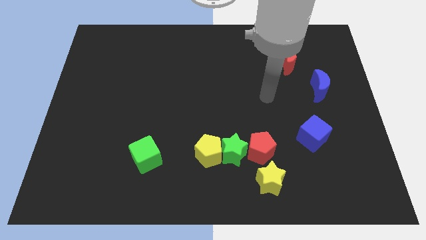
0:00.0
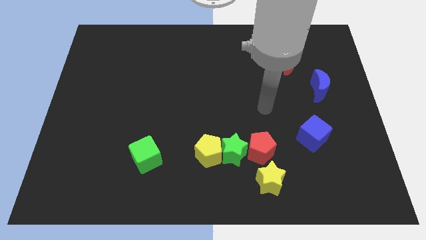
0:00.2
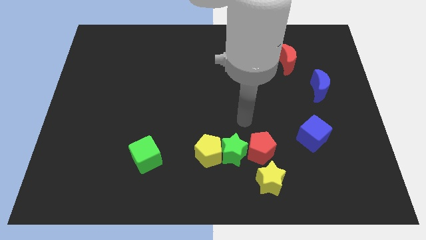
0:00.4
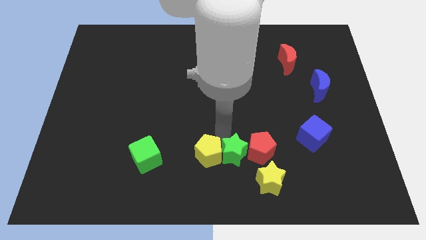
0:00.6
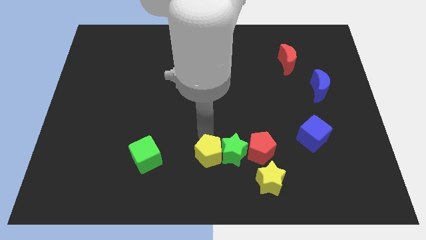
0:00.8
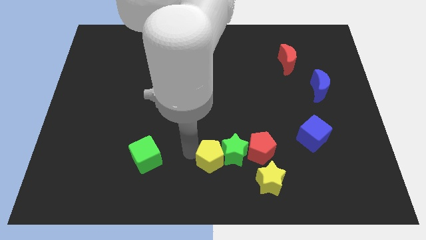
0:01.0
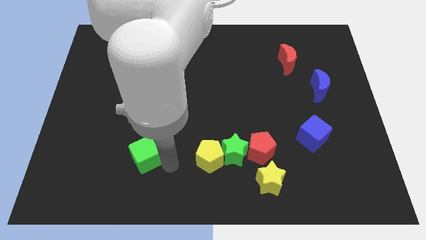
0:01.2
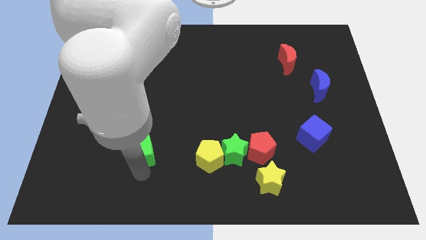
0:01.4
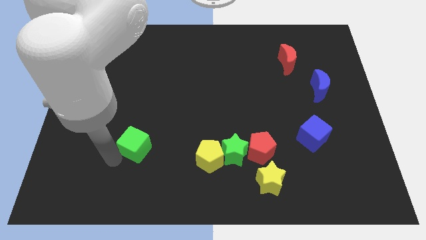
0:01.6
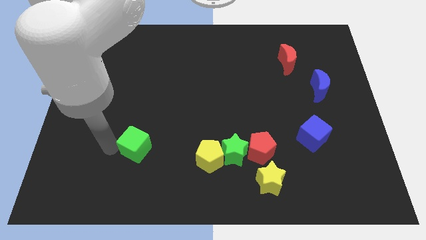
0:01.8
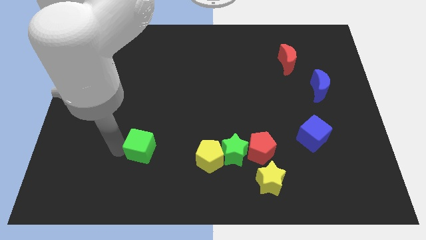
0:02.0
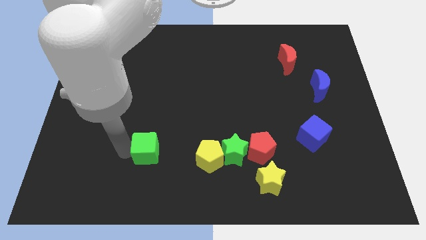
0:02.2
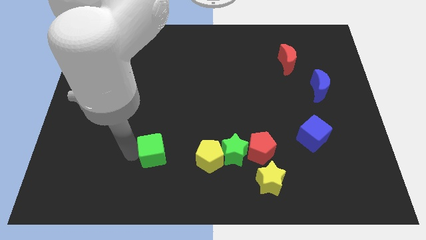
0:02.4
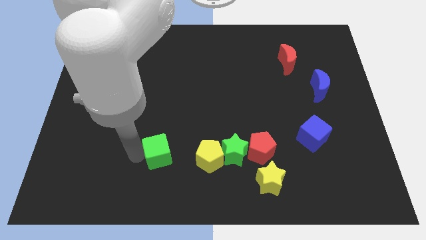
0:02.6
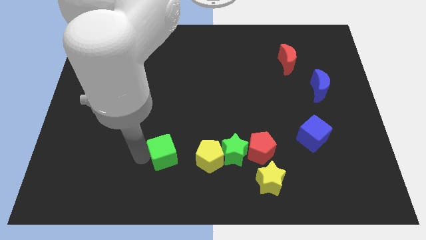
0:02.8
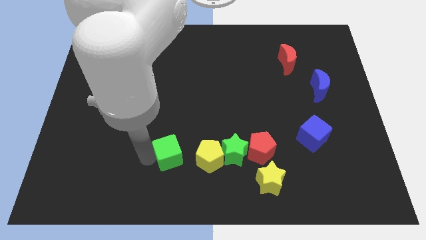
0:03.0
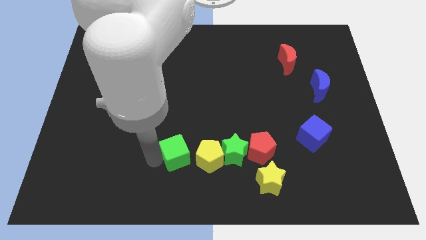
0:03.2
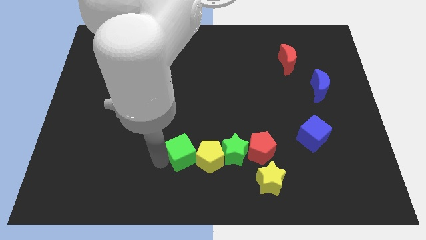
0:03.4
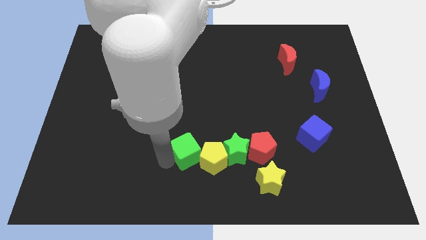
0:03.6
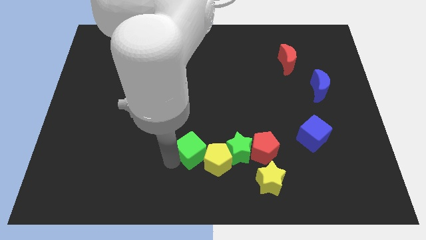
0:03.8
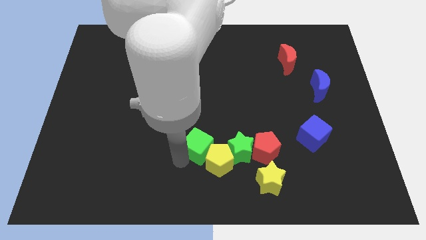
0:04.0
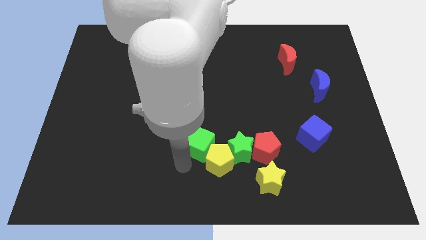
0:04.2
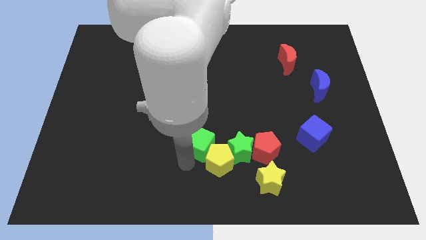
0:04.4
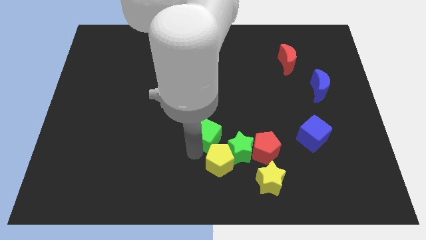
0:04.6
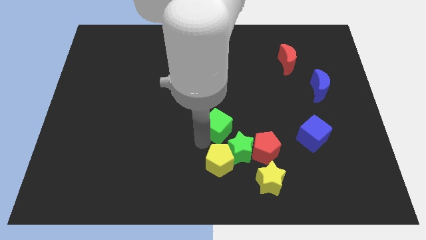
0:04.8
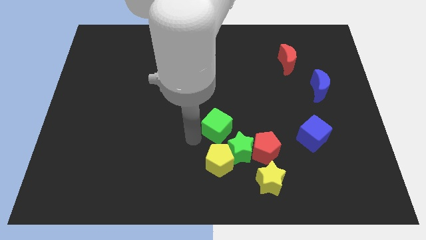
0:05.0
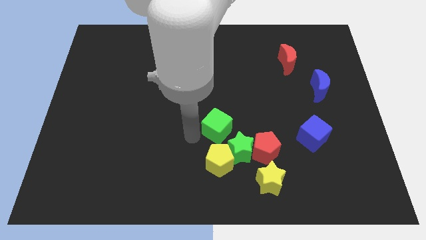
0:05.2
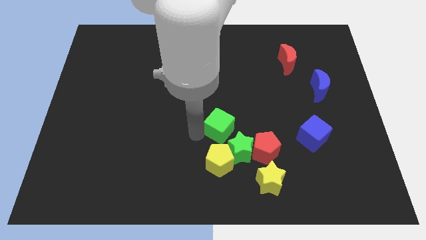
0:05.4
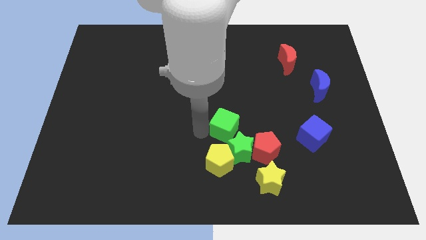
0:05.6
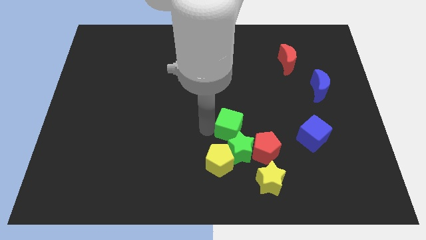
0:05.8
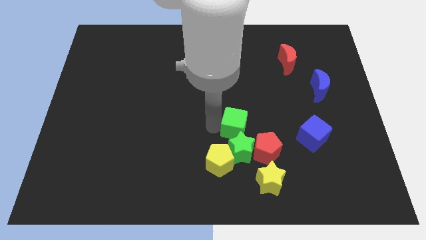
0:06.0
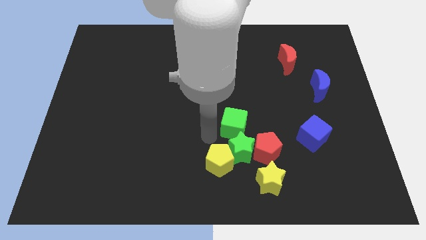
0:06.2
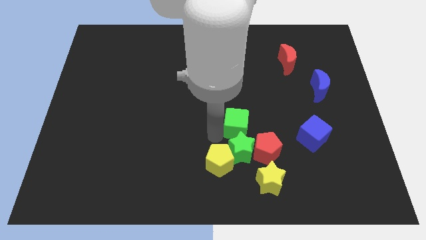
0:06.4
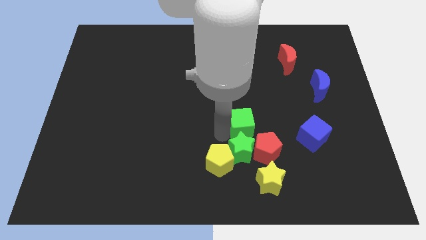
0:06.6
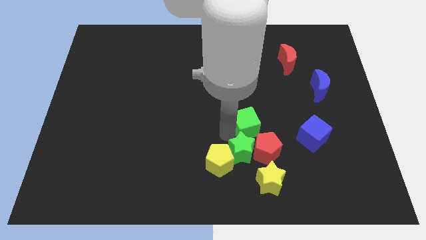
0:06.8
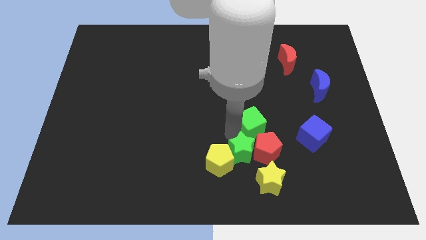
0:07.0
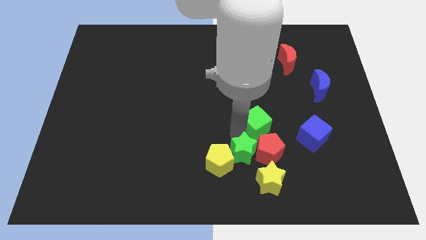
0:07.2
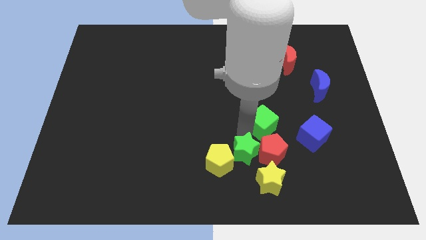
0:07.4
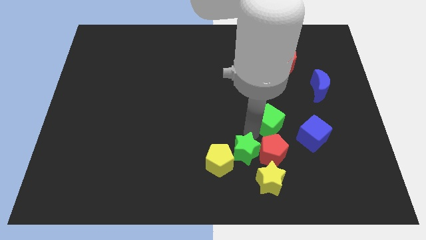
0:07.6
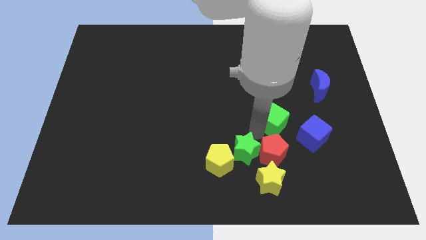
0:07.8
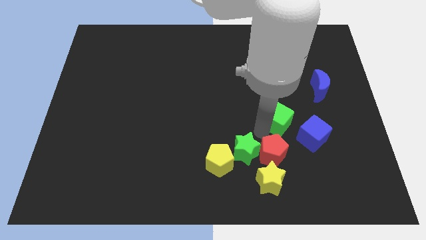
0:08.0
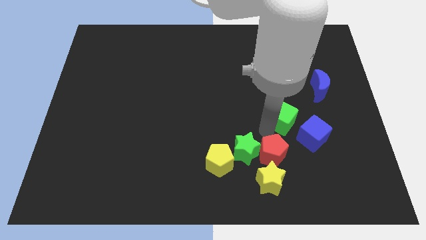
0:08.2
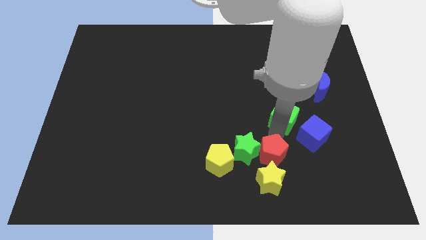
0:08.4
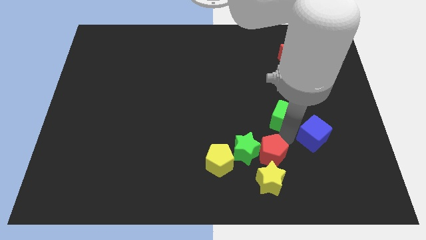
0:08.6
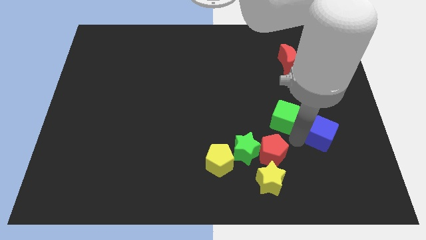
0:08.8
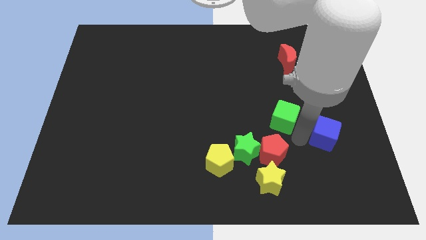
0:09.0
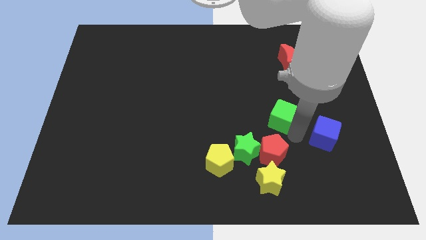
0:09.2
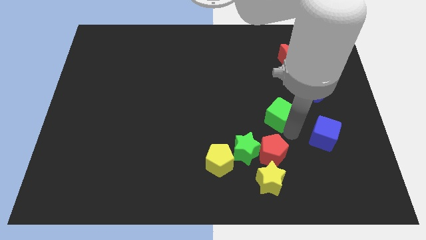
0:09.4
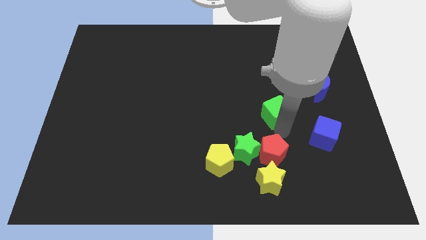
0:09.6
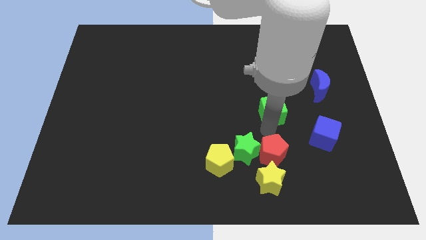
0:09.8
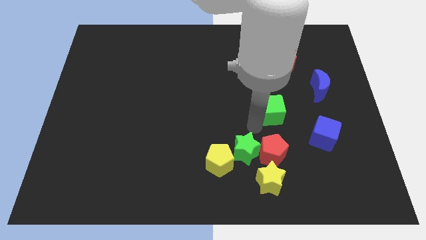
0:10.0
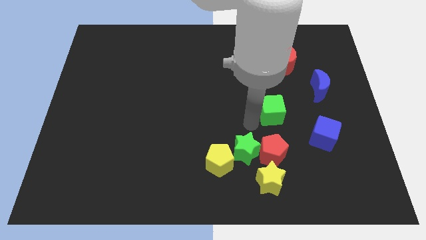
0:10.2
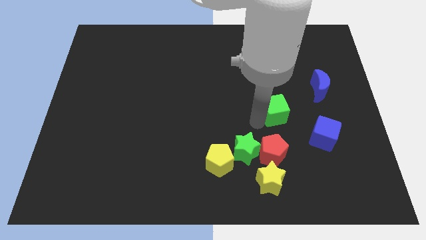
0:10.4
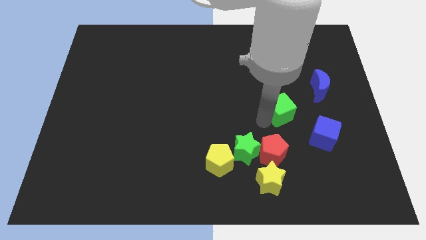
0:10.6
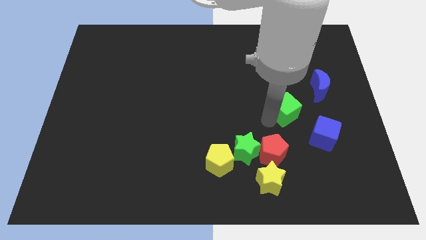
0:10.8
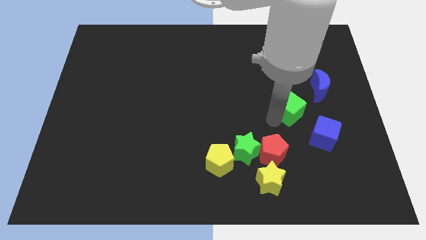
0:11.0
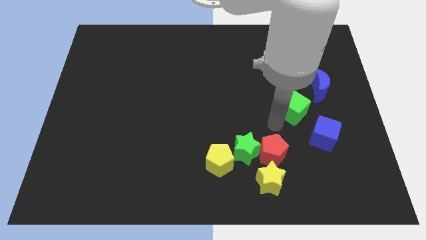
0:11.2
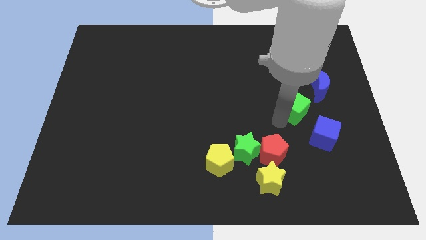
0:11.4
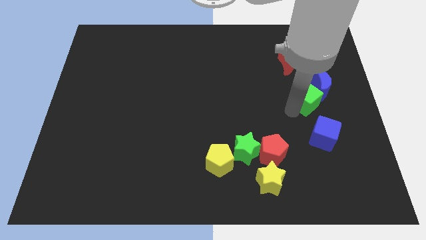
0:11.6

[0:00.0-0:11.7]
slide the green cube towards the blue moon
